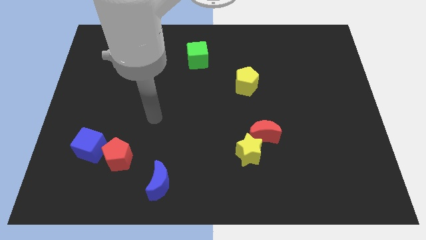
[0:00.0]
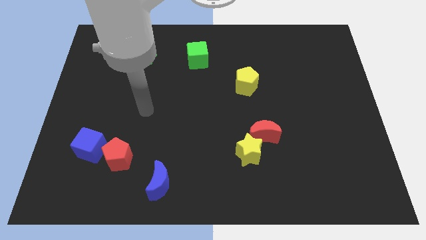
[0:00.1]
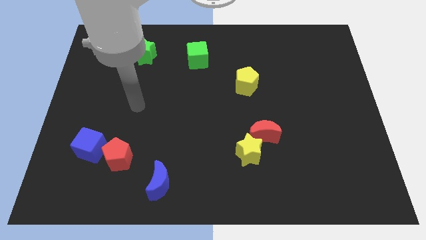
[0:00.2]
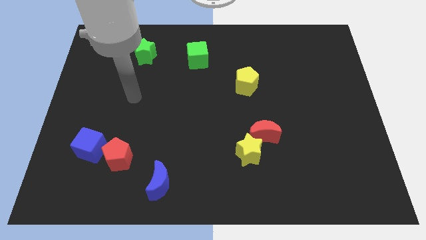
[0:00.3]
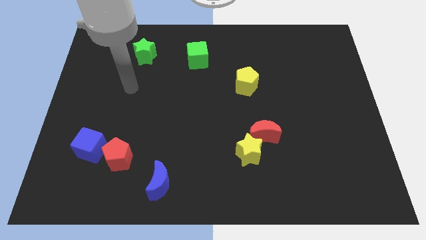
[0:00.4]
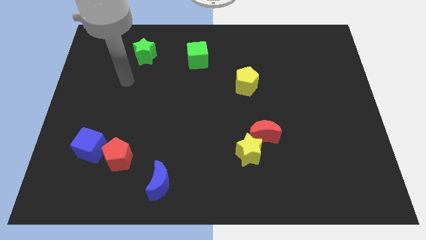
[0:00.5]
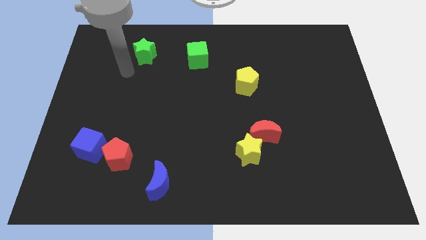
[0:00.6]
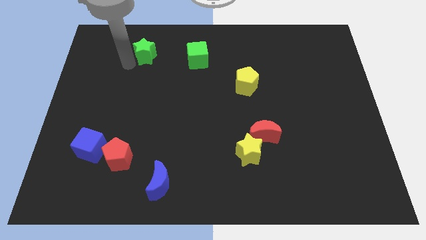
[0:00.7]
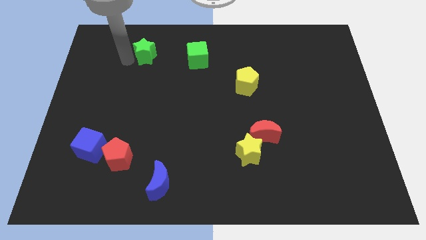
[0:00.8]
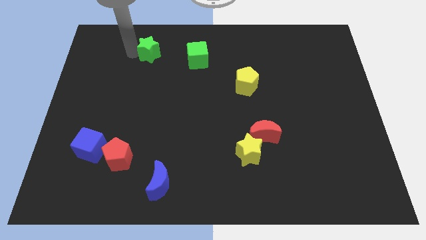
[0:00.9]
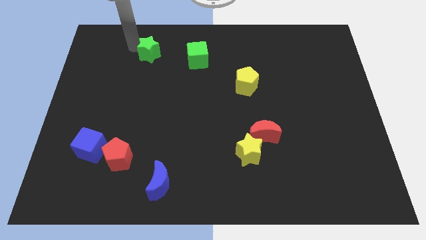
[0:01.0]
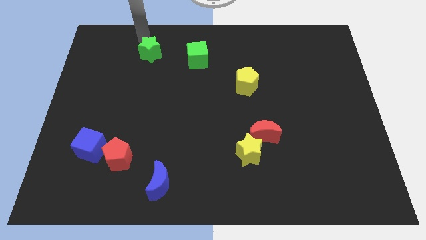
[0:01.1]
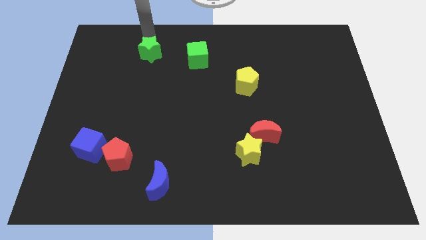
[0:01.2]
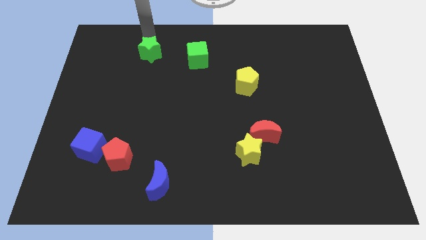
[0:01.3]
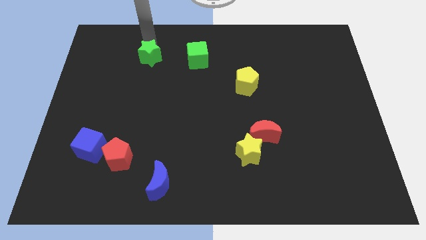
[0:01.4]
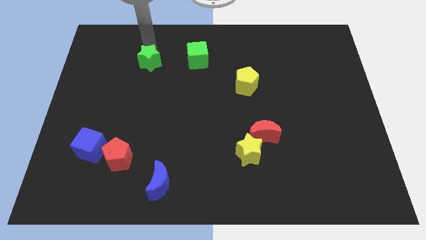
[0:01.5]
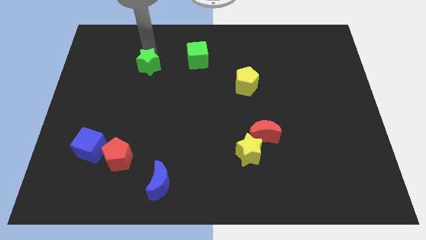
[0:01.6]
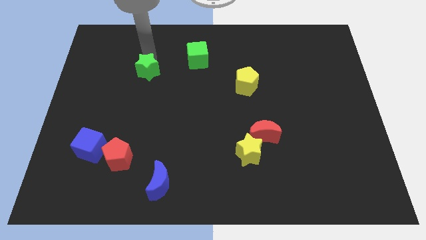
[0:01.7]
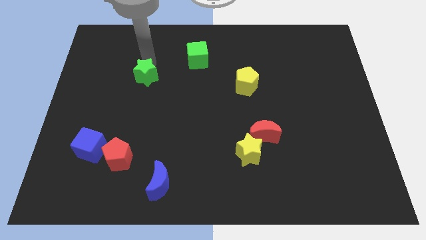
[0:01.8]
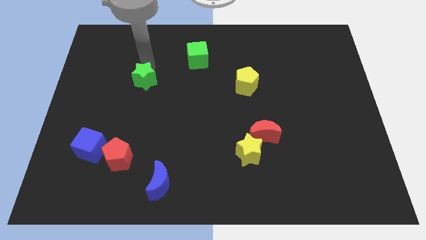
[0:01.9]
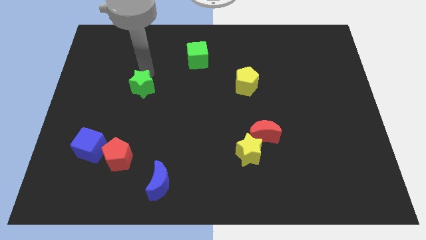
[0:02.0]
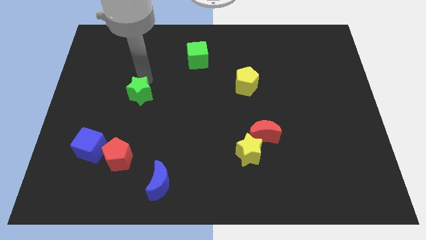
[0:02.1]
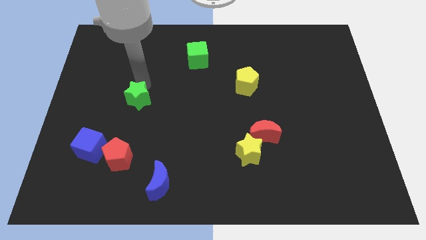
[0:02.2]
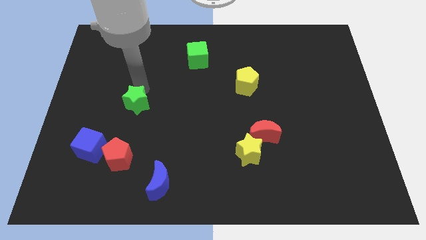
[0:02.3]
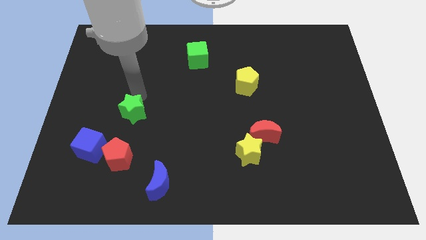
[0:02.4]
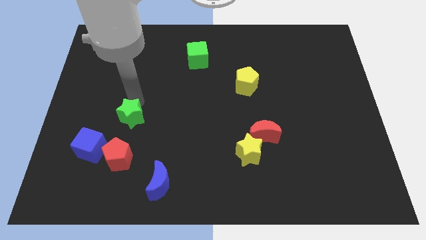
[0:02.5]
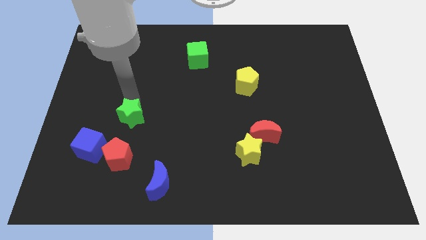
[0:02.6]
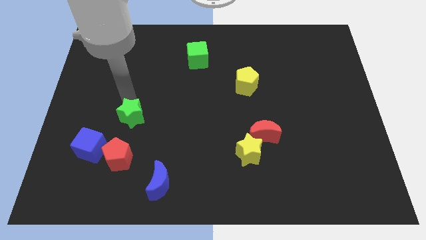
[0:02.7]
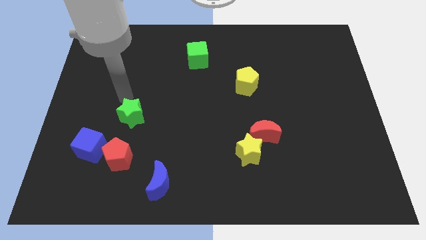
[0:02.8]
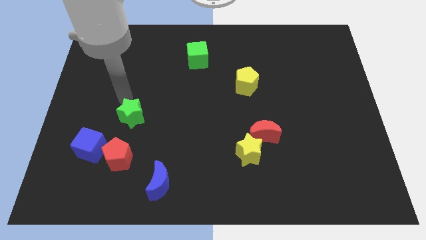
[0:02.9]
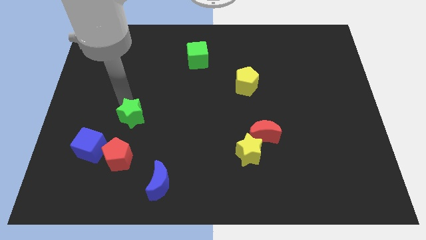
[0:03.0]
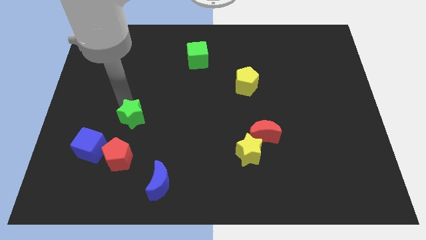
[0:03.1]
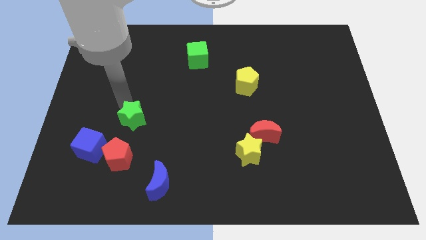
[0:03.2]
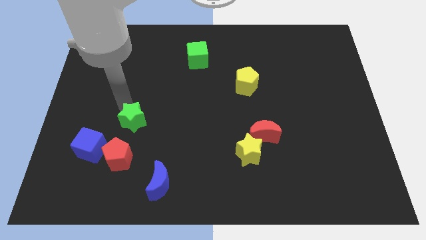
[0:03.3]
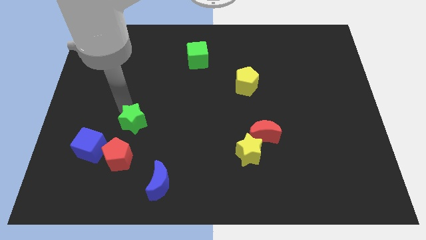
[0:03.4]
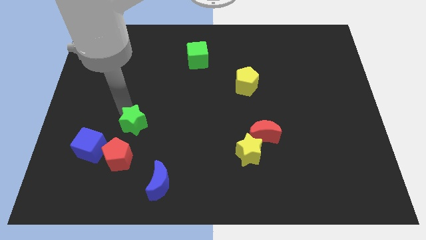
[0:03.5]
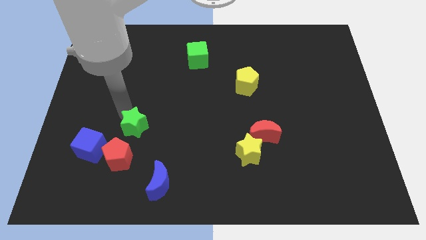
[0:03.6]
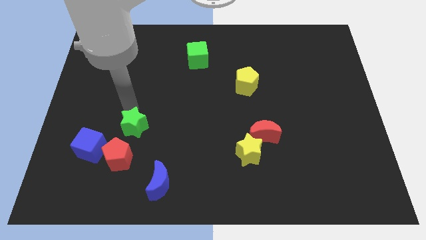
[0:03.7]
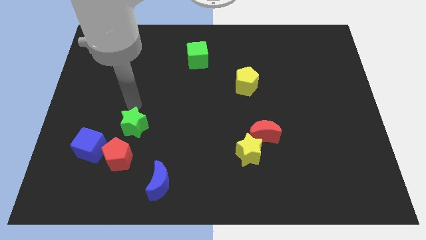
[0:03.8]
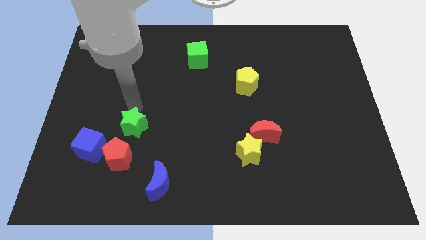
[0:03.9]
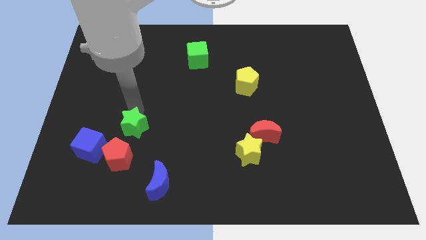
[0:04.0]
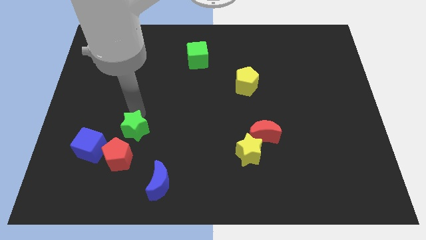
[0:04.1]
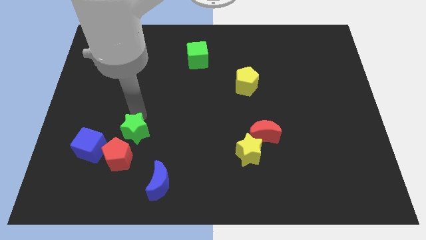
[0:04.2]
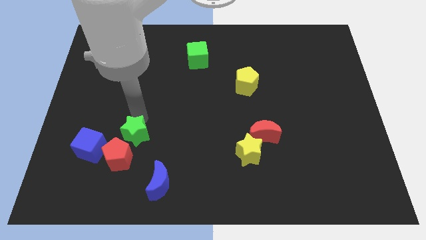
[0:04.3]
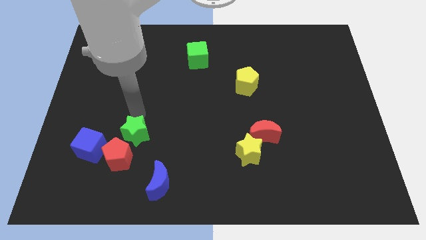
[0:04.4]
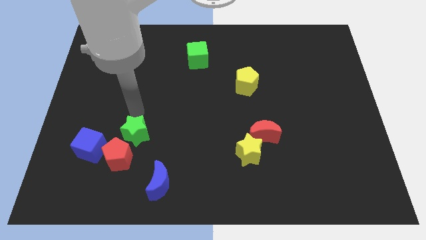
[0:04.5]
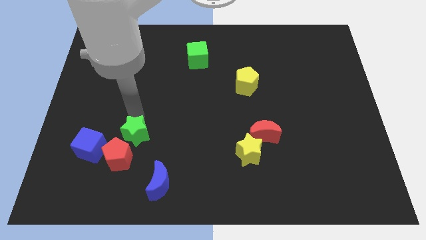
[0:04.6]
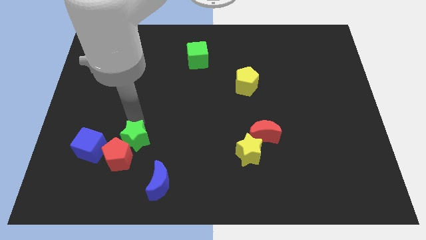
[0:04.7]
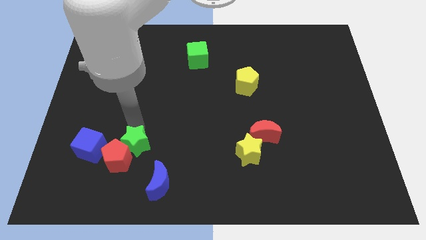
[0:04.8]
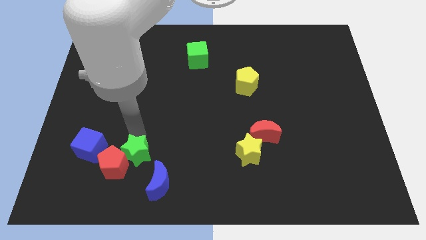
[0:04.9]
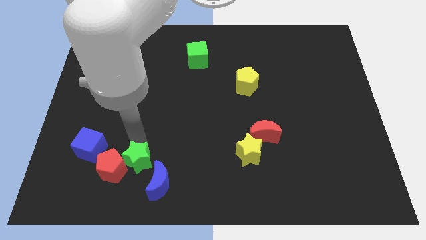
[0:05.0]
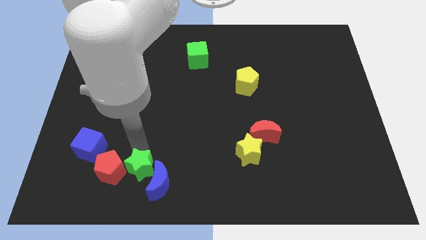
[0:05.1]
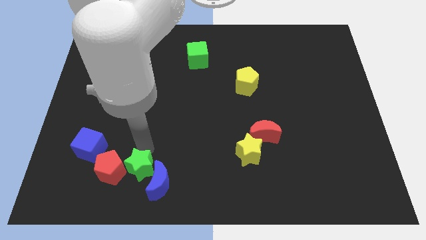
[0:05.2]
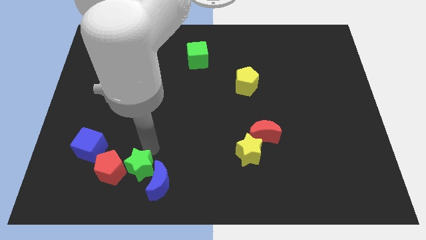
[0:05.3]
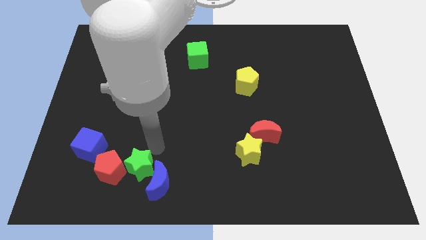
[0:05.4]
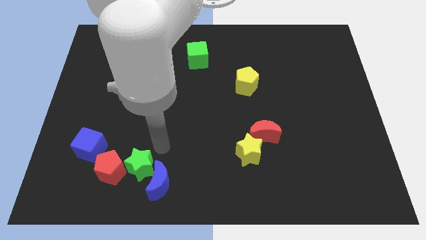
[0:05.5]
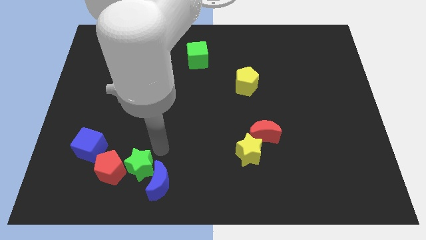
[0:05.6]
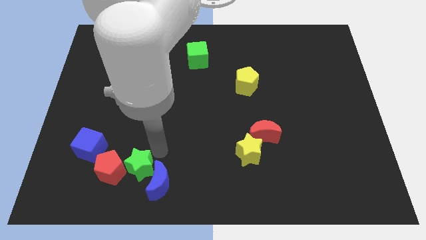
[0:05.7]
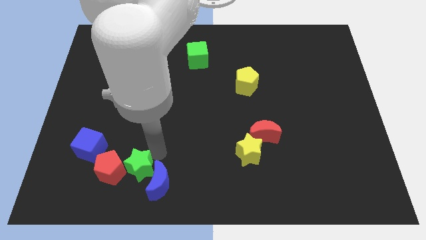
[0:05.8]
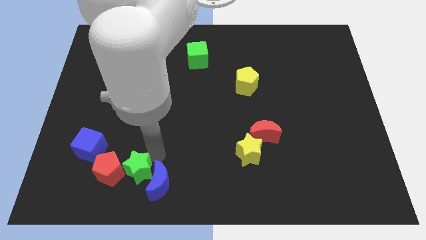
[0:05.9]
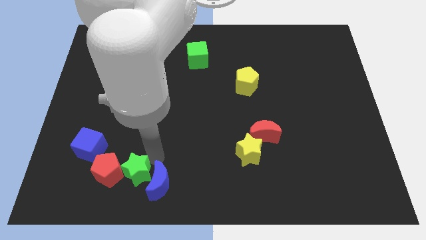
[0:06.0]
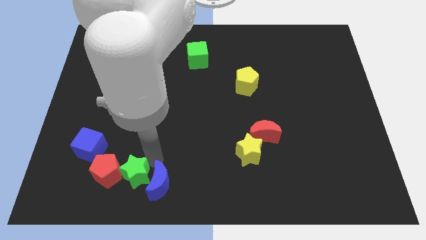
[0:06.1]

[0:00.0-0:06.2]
move the green star to the bottom right of the blue cube
